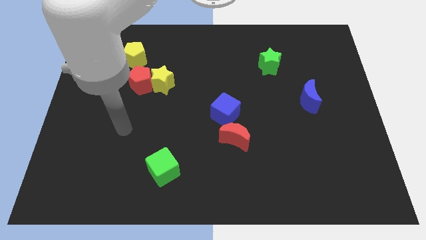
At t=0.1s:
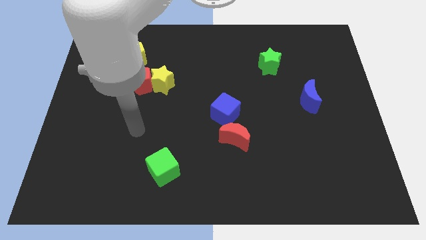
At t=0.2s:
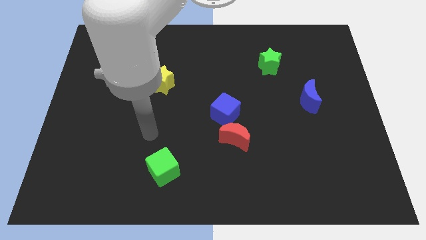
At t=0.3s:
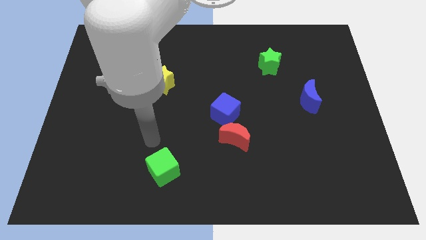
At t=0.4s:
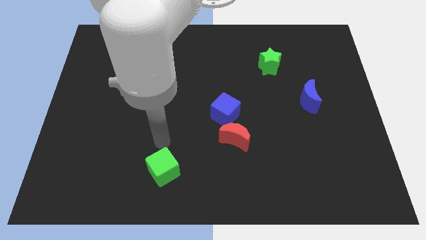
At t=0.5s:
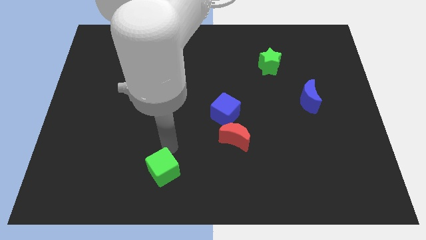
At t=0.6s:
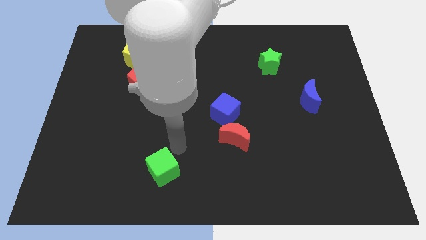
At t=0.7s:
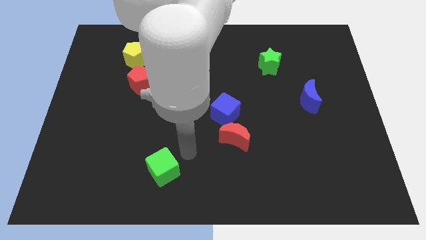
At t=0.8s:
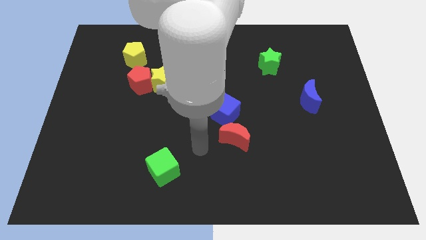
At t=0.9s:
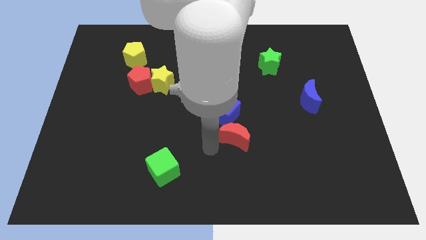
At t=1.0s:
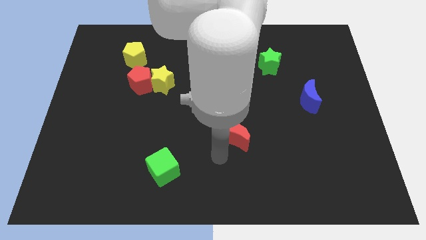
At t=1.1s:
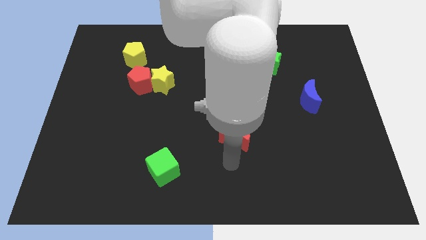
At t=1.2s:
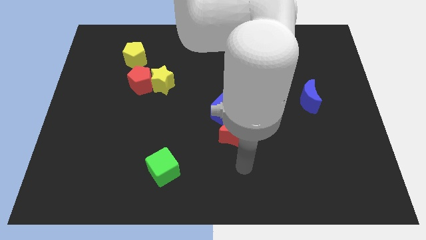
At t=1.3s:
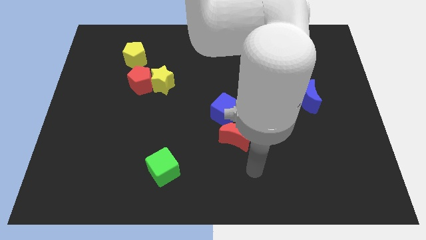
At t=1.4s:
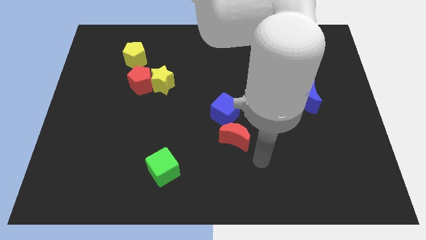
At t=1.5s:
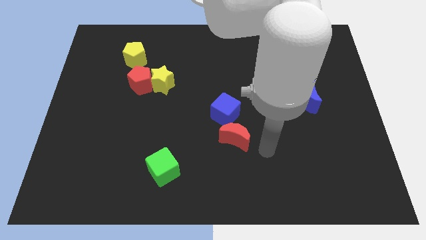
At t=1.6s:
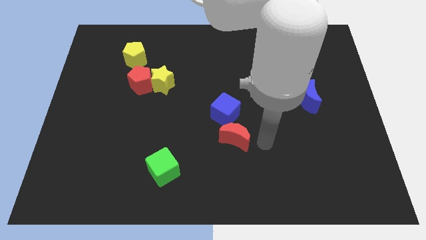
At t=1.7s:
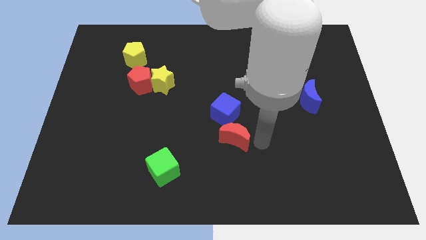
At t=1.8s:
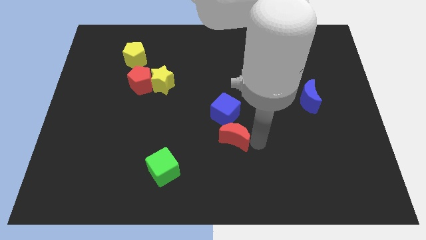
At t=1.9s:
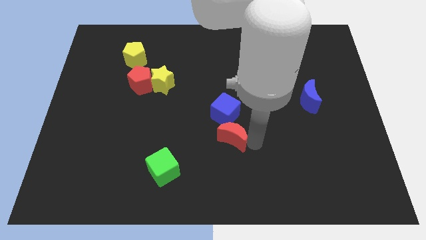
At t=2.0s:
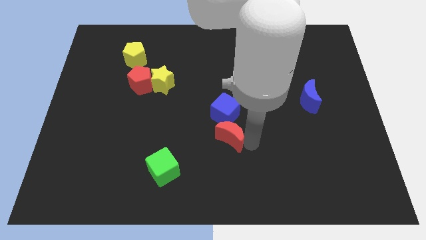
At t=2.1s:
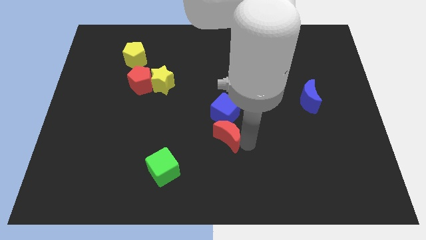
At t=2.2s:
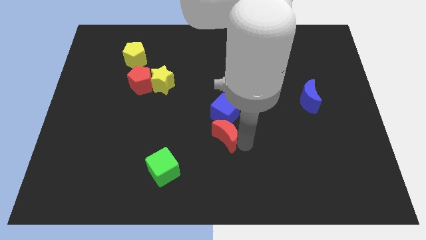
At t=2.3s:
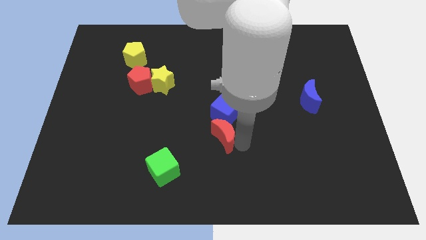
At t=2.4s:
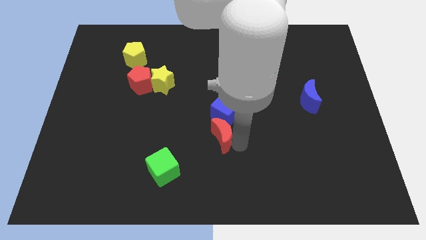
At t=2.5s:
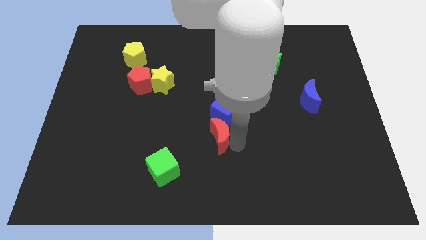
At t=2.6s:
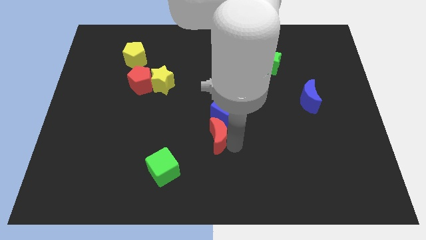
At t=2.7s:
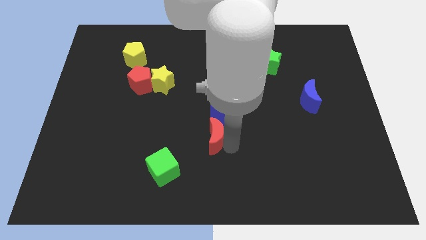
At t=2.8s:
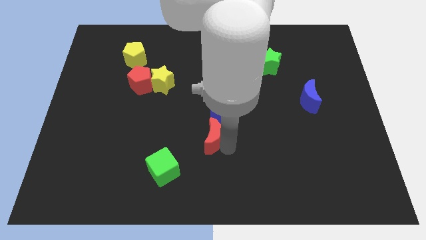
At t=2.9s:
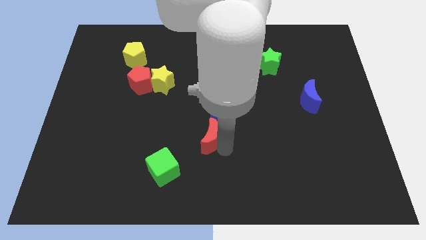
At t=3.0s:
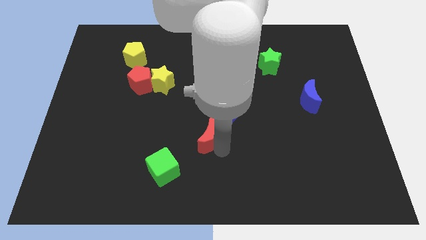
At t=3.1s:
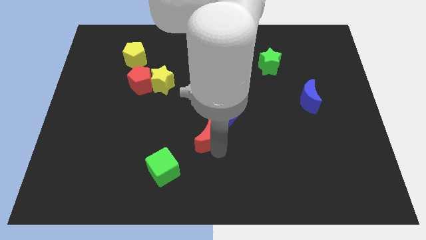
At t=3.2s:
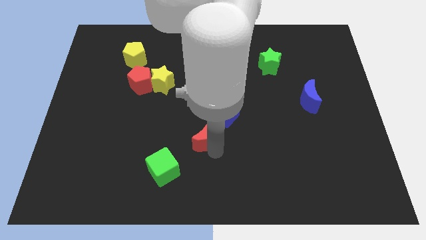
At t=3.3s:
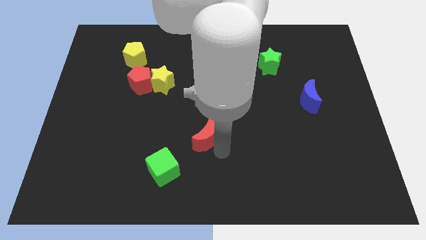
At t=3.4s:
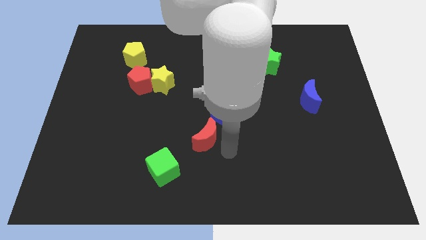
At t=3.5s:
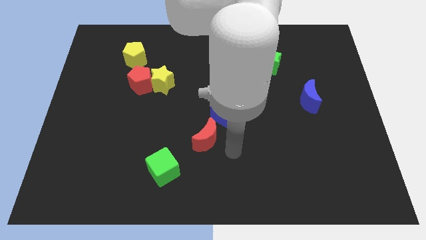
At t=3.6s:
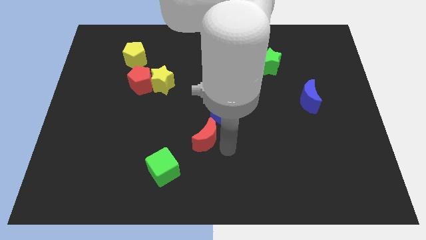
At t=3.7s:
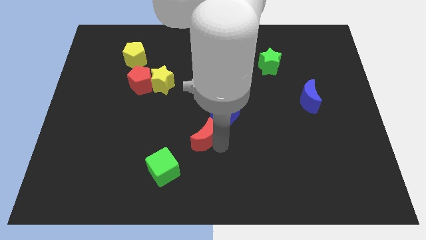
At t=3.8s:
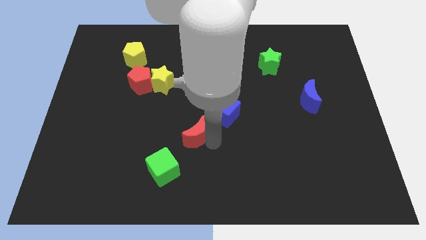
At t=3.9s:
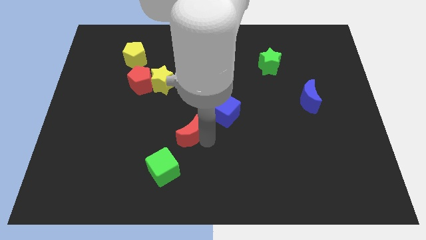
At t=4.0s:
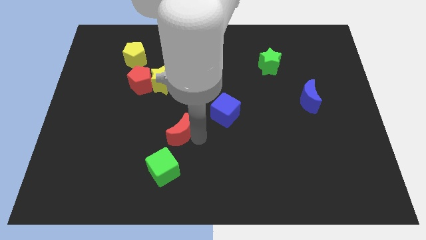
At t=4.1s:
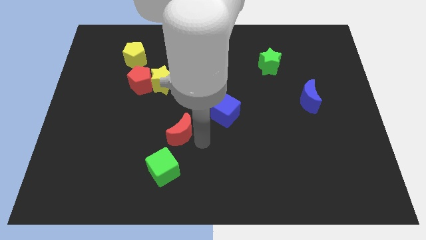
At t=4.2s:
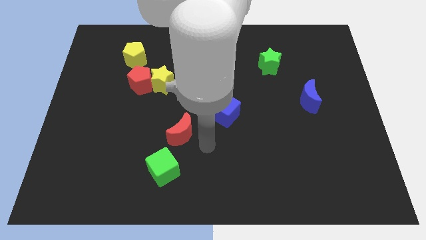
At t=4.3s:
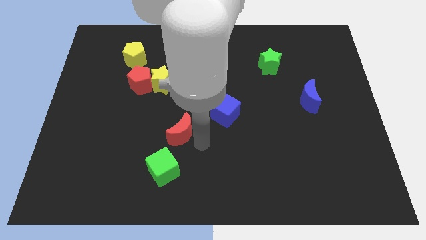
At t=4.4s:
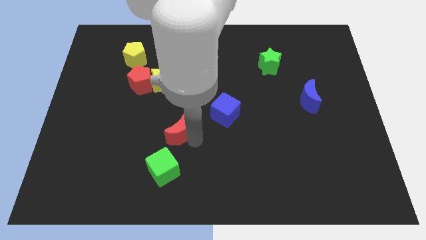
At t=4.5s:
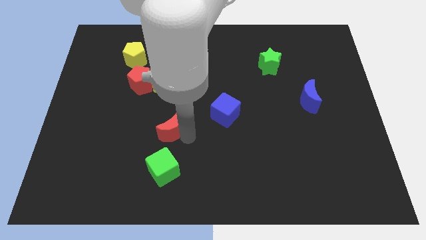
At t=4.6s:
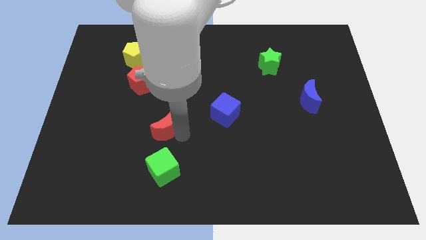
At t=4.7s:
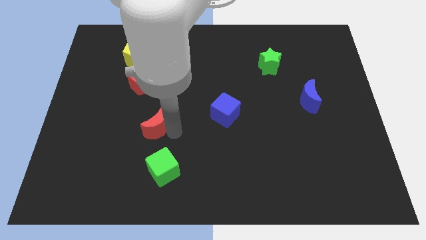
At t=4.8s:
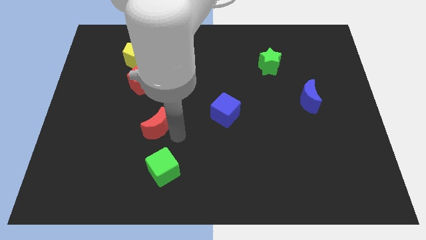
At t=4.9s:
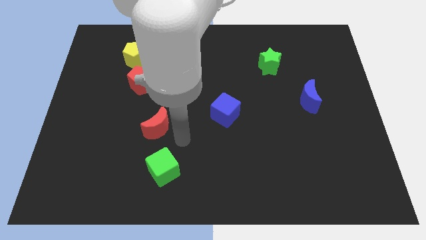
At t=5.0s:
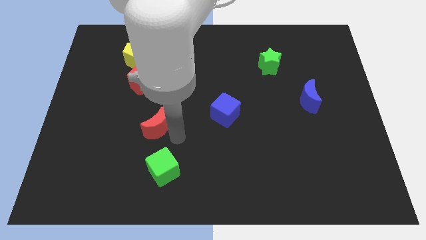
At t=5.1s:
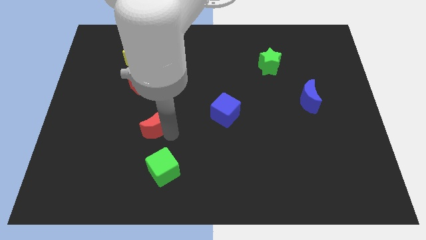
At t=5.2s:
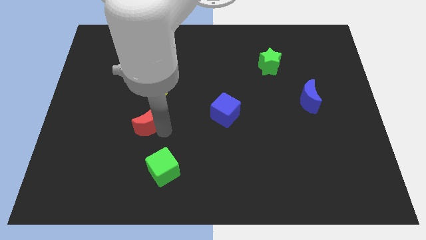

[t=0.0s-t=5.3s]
push the red moon to the bottom of the red pentagon

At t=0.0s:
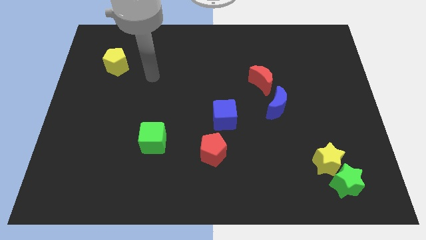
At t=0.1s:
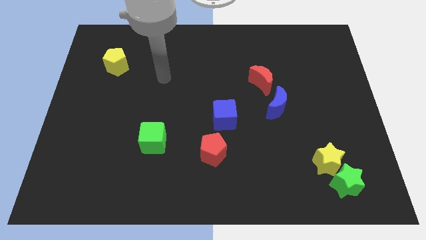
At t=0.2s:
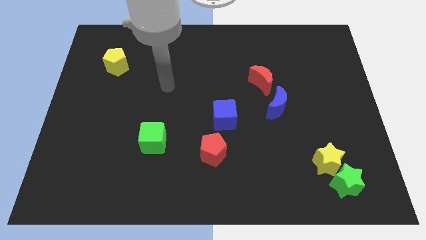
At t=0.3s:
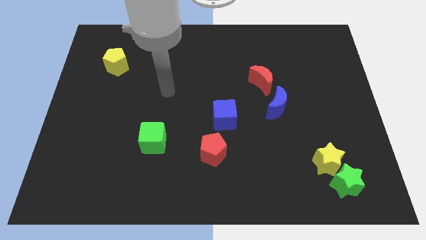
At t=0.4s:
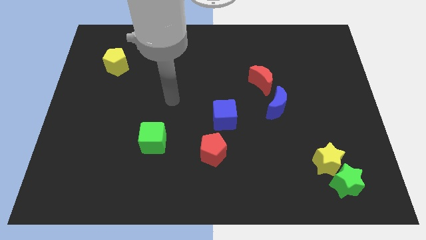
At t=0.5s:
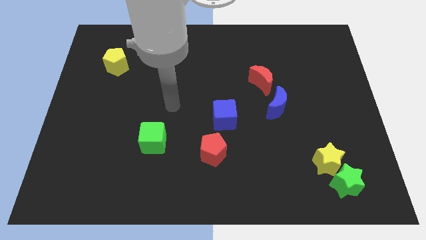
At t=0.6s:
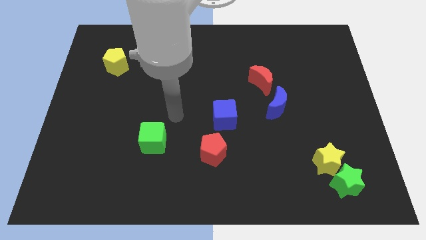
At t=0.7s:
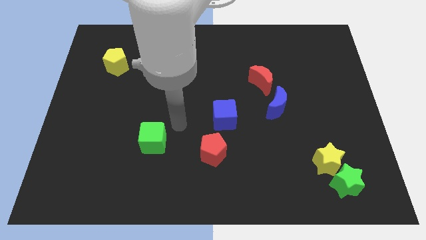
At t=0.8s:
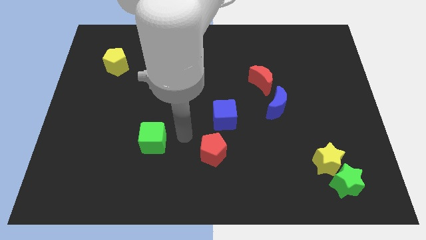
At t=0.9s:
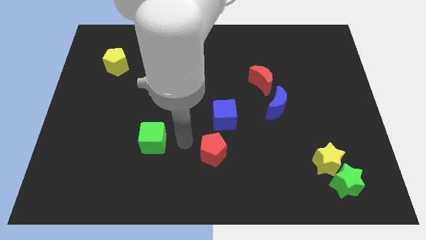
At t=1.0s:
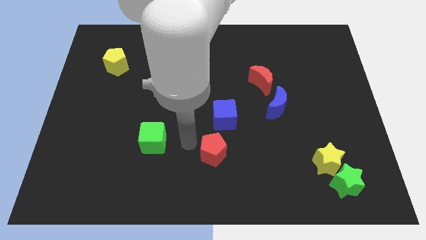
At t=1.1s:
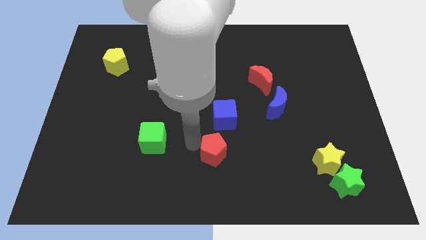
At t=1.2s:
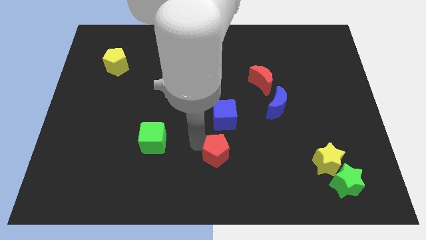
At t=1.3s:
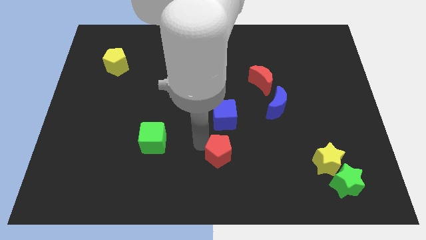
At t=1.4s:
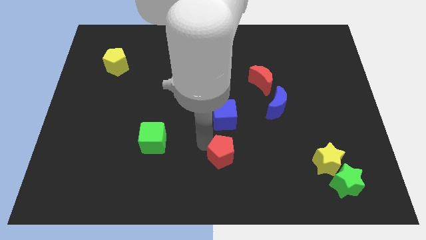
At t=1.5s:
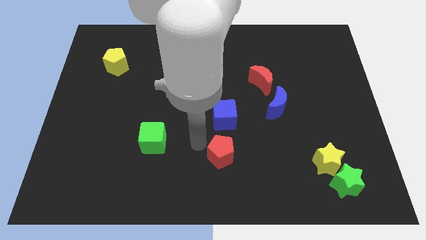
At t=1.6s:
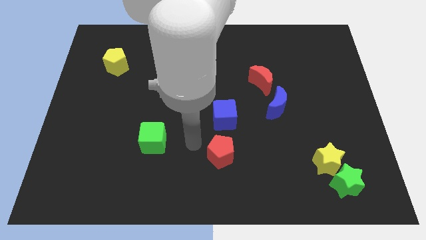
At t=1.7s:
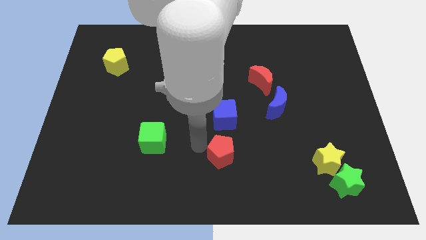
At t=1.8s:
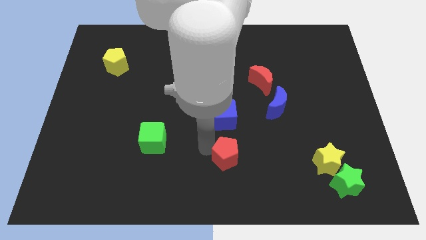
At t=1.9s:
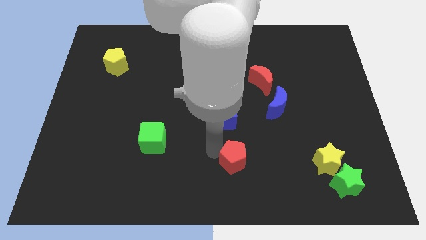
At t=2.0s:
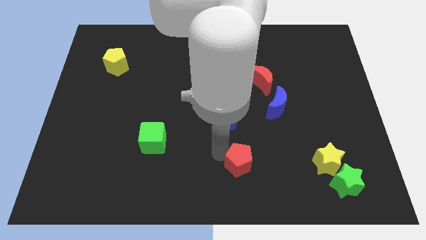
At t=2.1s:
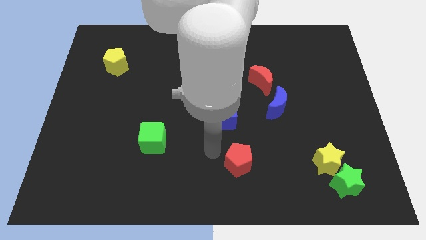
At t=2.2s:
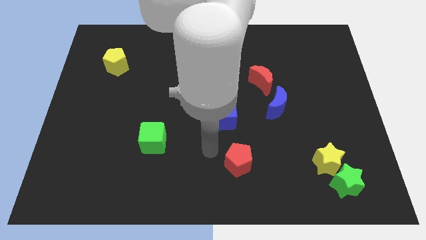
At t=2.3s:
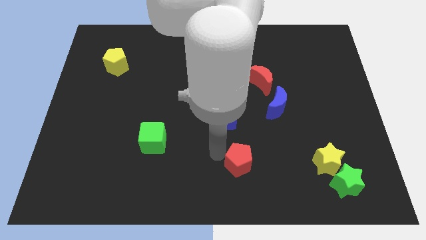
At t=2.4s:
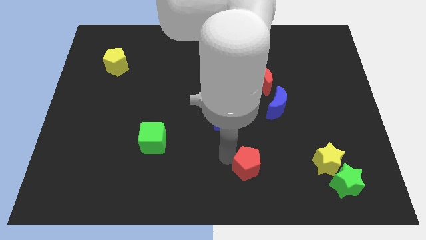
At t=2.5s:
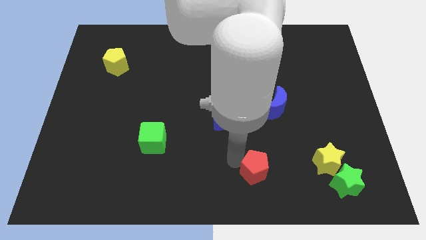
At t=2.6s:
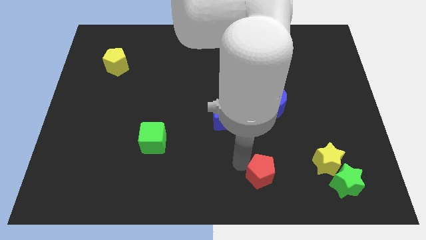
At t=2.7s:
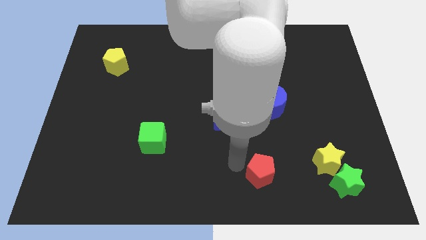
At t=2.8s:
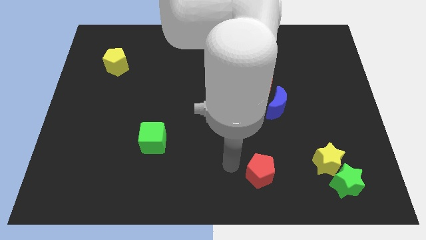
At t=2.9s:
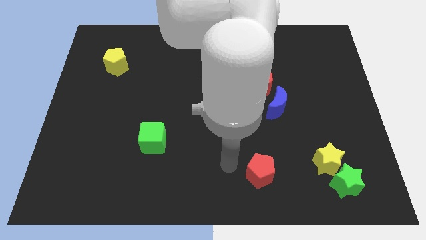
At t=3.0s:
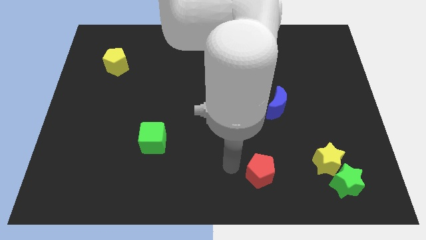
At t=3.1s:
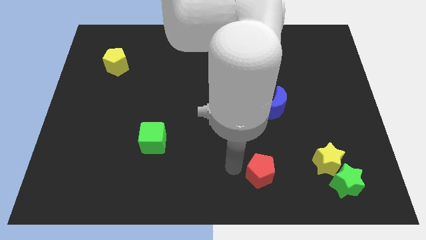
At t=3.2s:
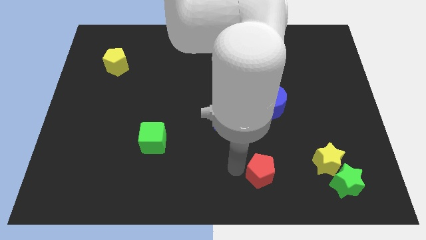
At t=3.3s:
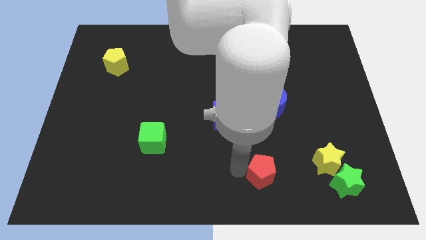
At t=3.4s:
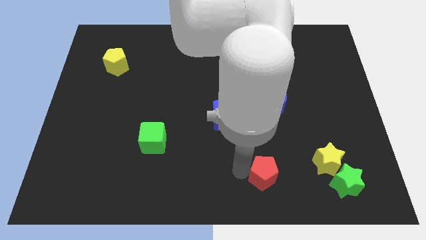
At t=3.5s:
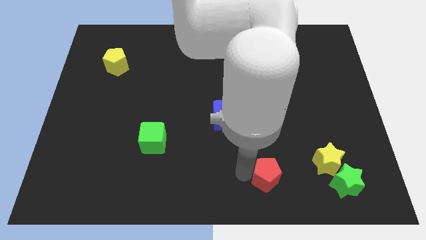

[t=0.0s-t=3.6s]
slide the red pentagon to the left side of the green star
